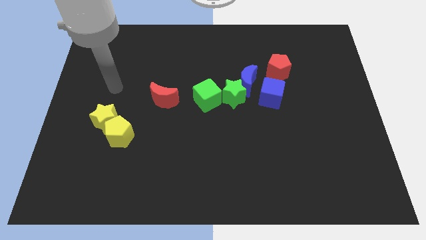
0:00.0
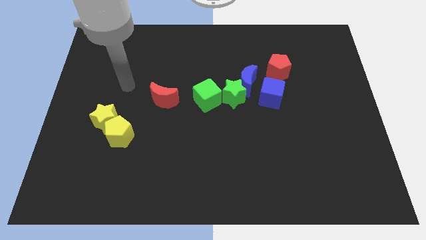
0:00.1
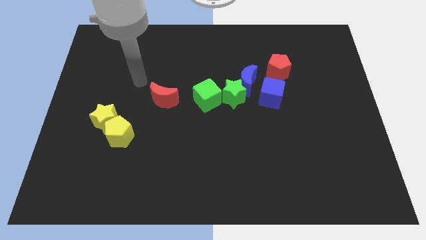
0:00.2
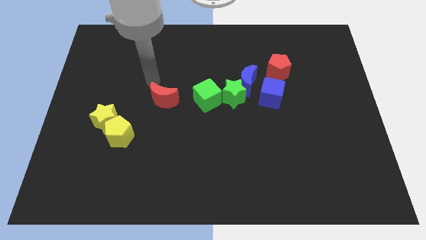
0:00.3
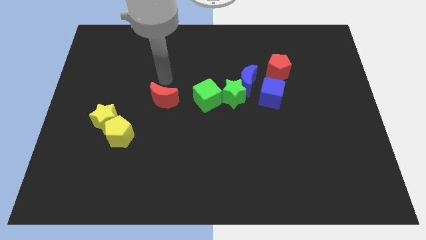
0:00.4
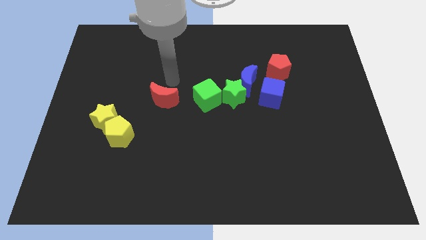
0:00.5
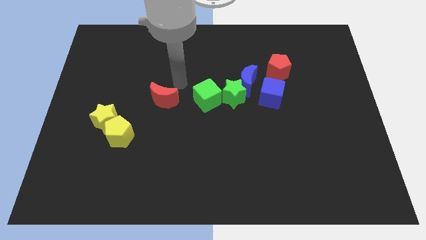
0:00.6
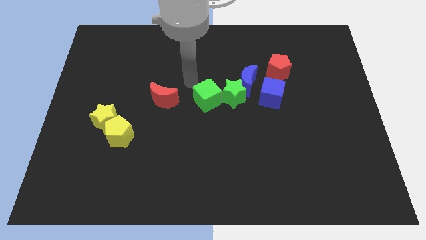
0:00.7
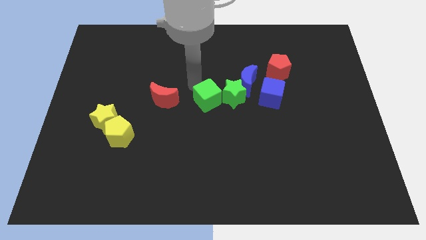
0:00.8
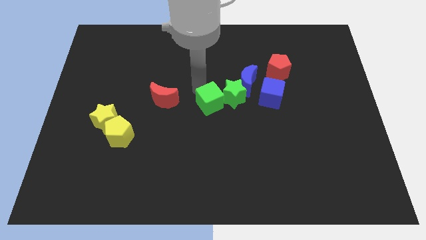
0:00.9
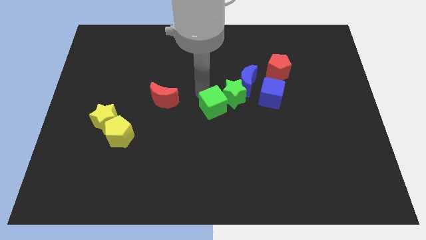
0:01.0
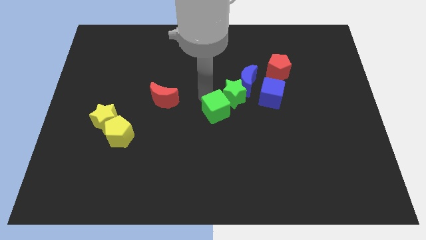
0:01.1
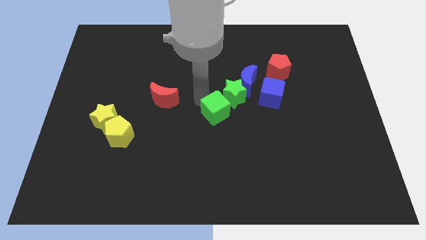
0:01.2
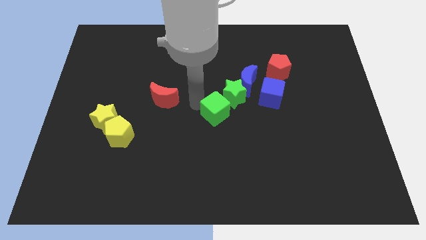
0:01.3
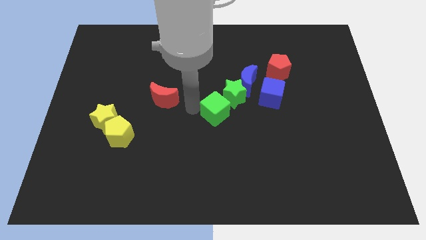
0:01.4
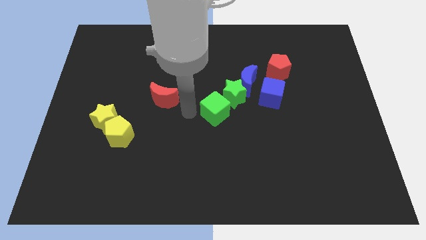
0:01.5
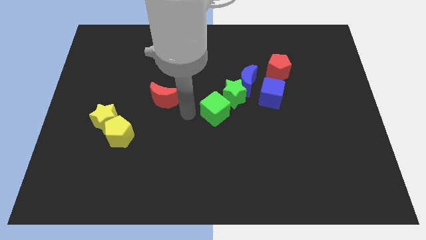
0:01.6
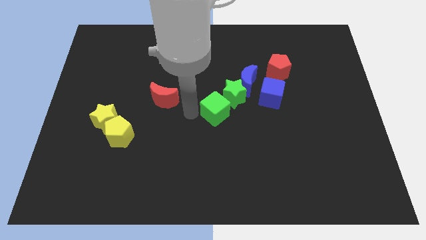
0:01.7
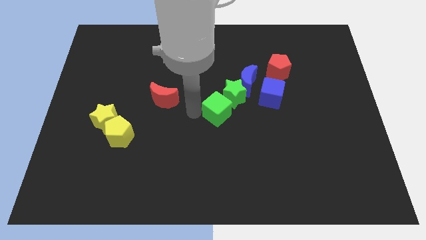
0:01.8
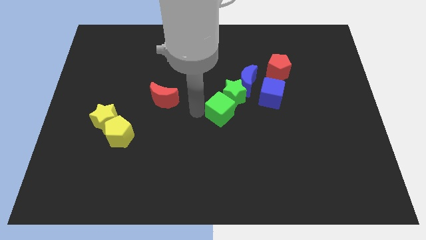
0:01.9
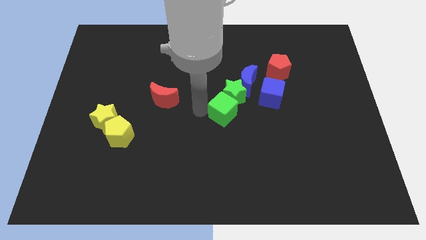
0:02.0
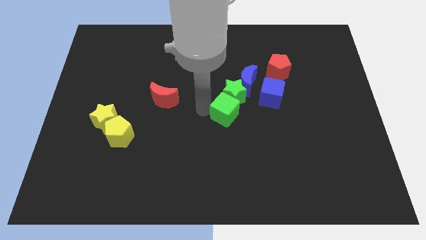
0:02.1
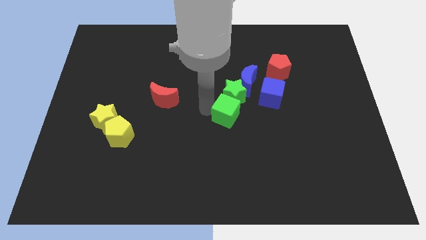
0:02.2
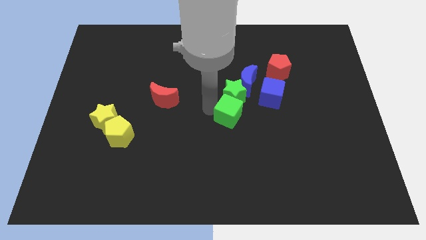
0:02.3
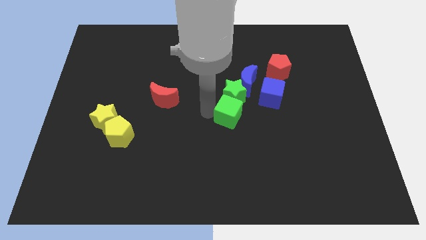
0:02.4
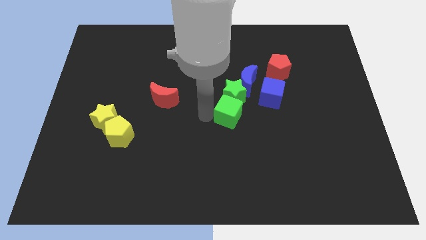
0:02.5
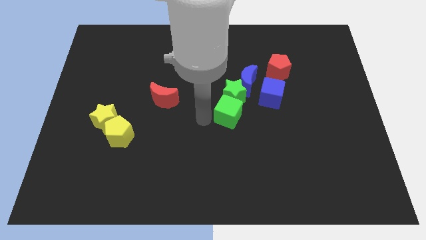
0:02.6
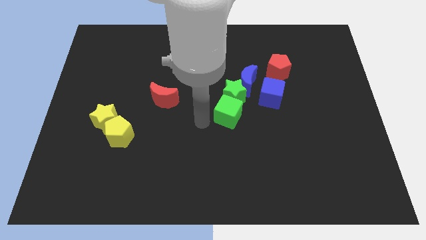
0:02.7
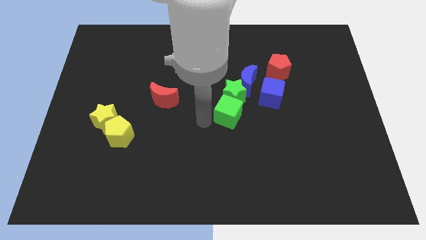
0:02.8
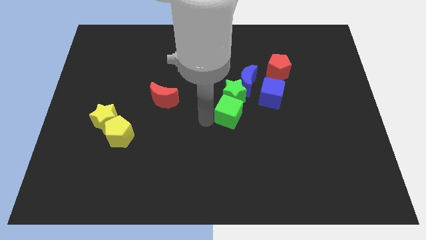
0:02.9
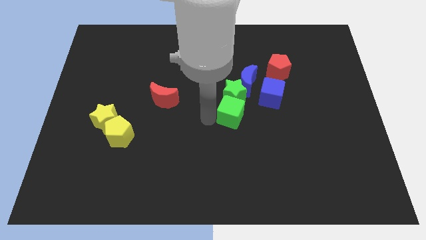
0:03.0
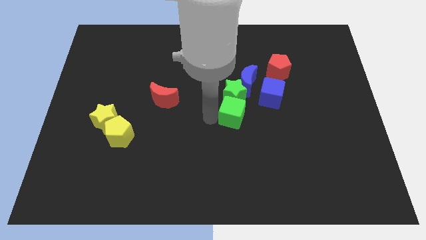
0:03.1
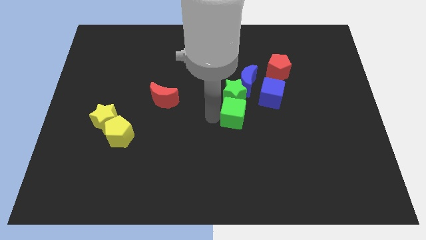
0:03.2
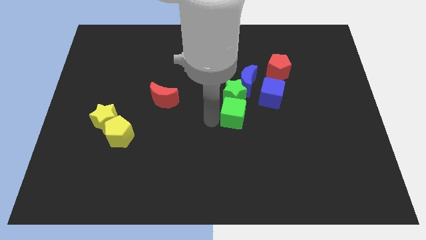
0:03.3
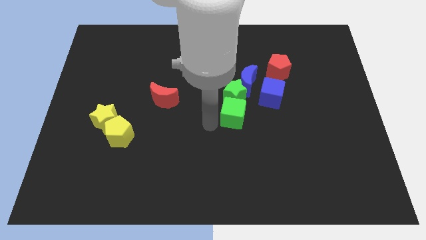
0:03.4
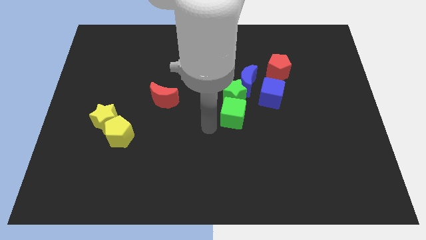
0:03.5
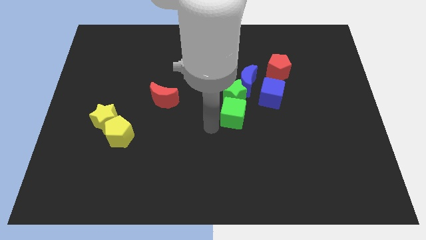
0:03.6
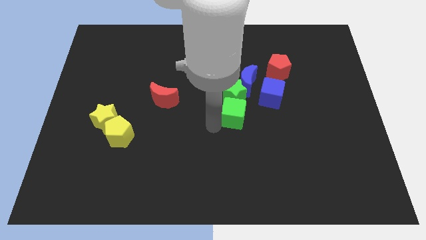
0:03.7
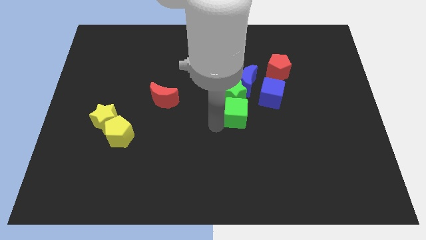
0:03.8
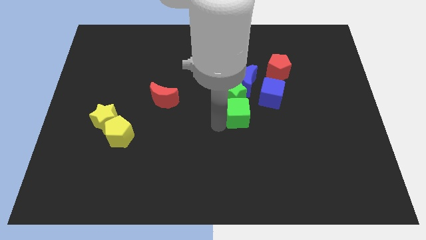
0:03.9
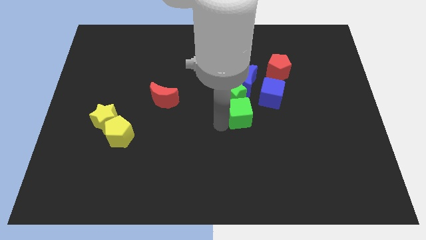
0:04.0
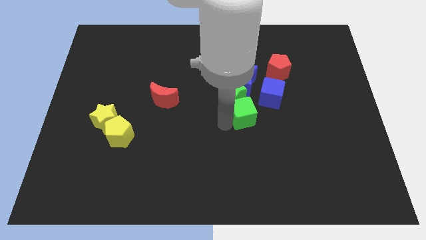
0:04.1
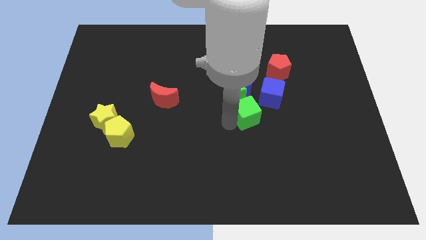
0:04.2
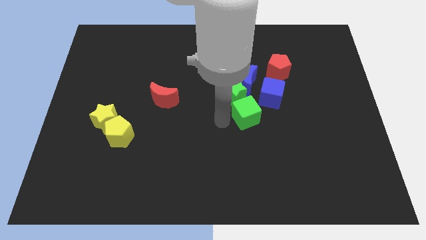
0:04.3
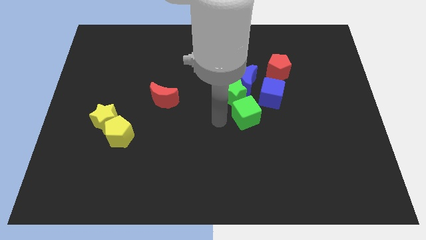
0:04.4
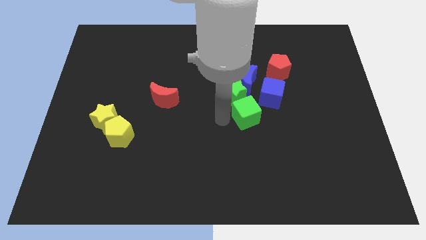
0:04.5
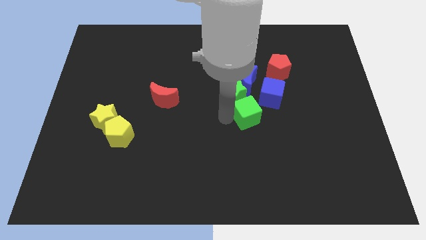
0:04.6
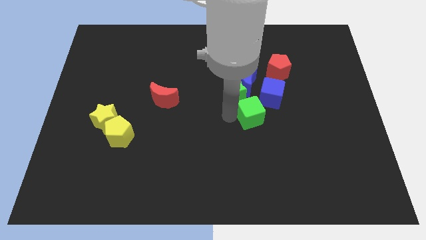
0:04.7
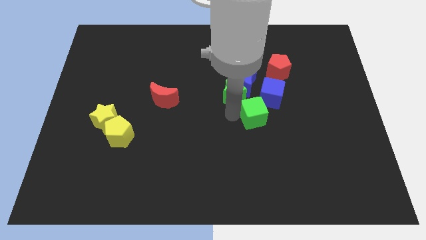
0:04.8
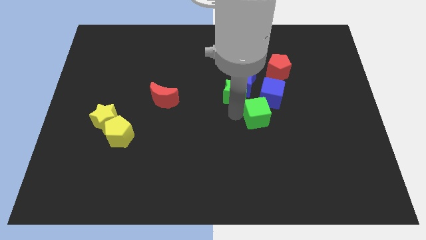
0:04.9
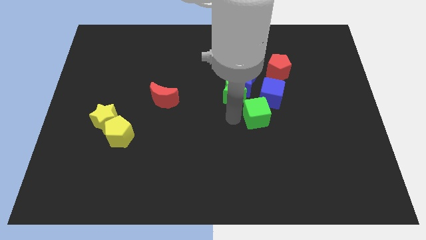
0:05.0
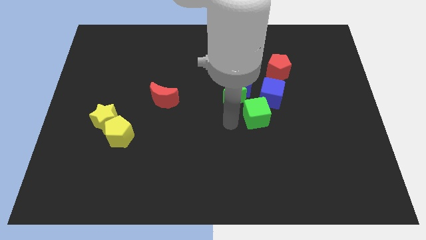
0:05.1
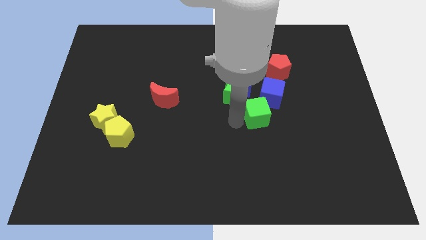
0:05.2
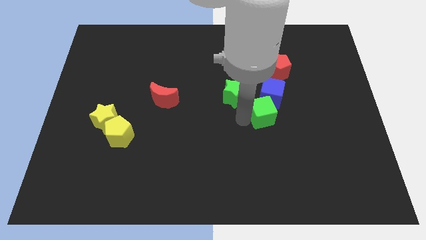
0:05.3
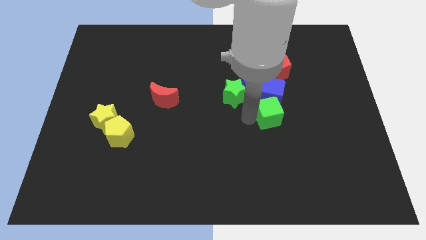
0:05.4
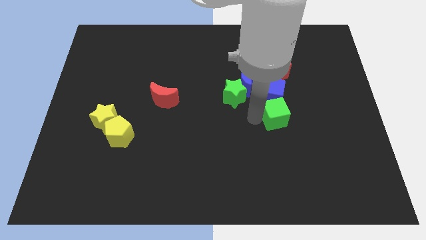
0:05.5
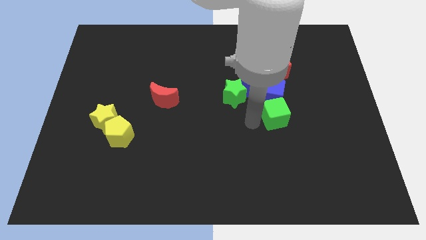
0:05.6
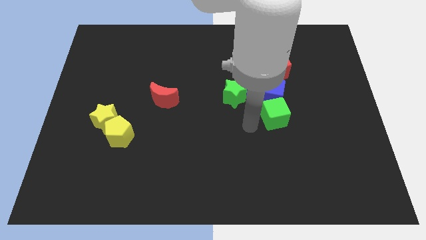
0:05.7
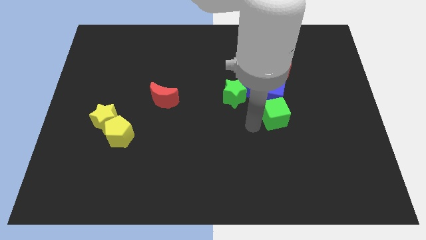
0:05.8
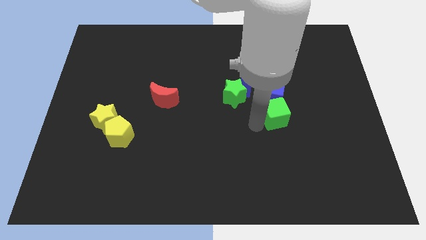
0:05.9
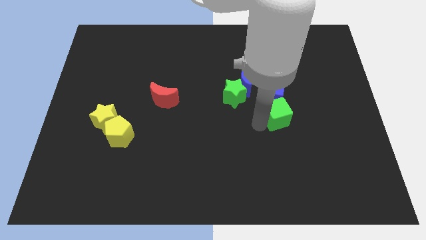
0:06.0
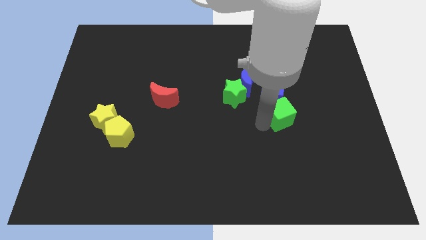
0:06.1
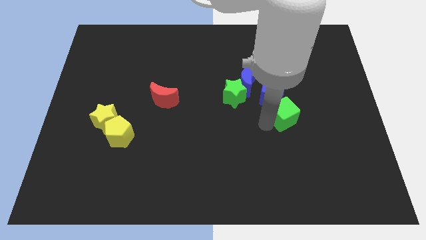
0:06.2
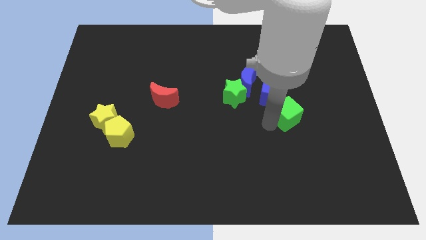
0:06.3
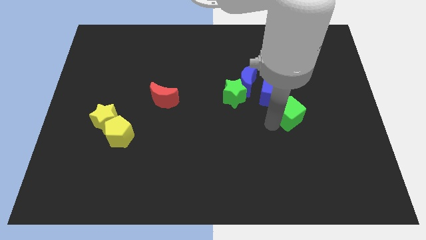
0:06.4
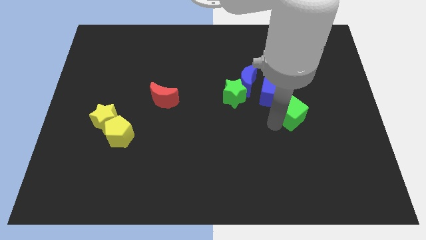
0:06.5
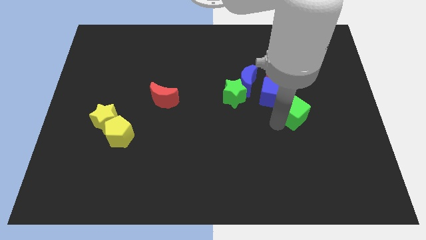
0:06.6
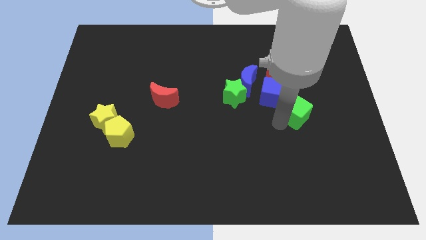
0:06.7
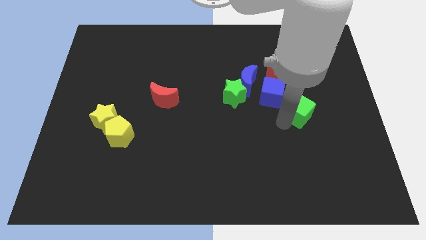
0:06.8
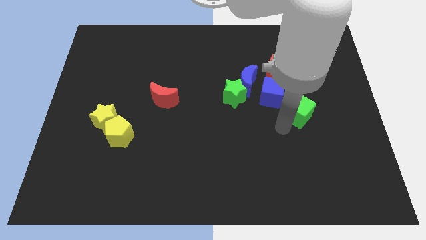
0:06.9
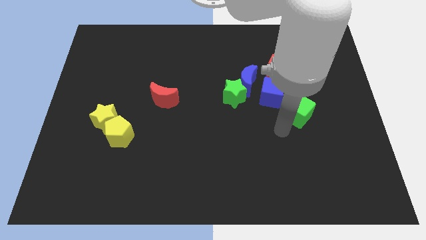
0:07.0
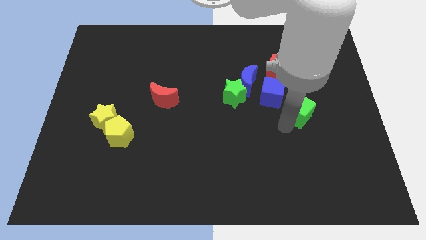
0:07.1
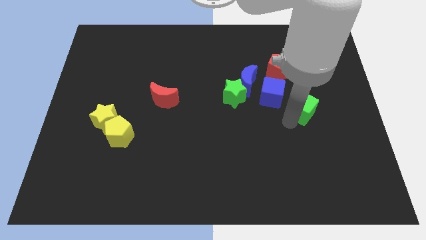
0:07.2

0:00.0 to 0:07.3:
slide the green cube to the right of the blue cube
